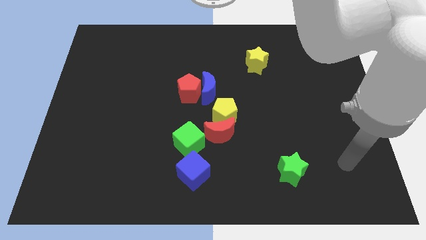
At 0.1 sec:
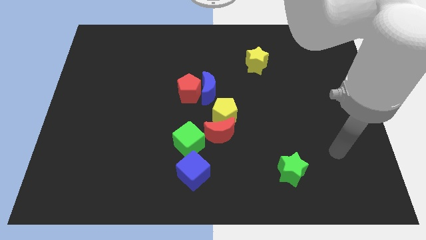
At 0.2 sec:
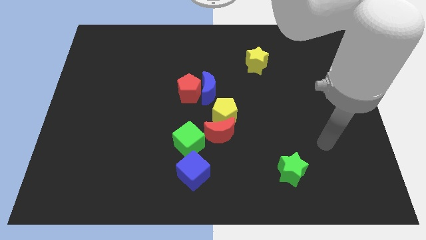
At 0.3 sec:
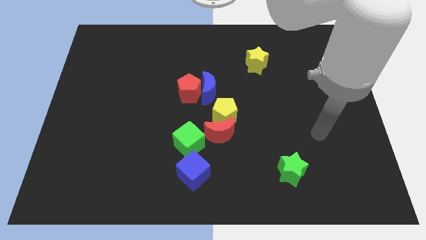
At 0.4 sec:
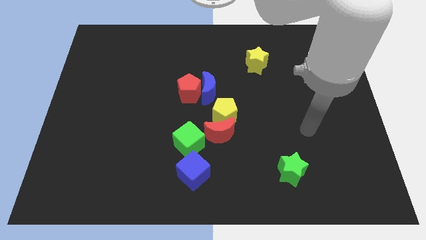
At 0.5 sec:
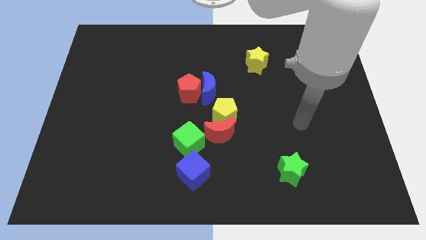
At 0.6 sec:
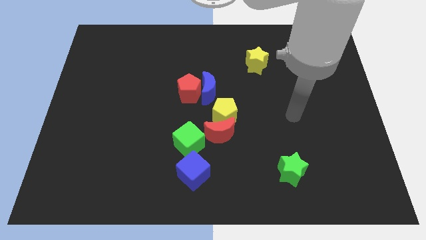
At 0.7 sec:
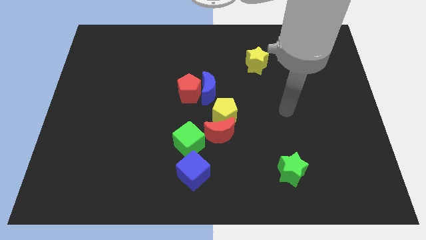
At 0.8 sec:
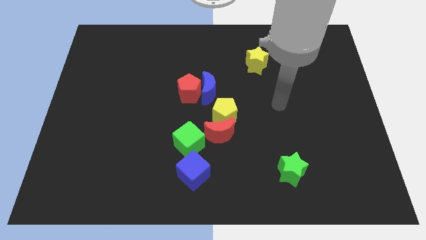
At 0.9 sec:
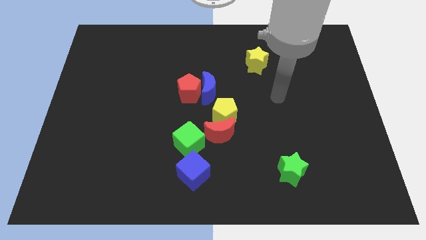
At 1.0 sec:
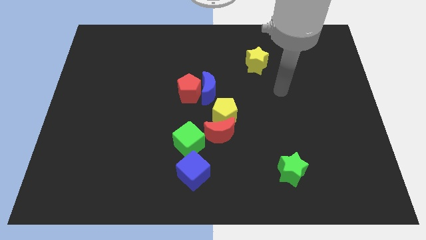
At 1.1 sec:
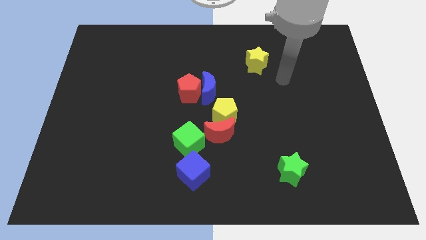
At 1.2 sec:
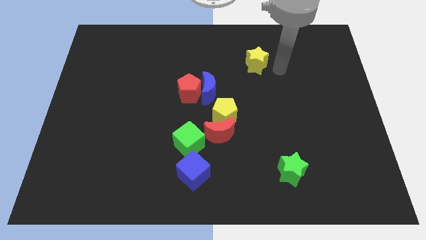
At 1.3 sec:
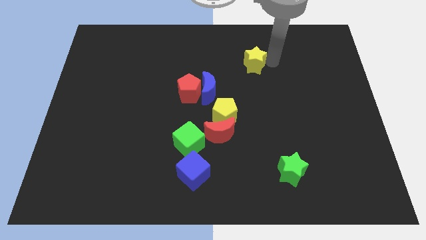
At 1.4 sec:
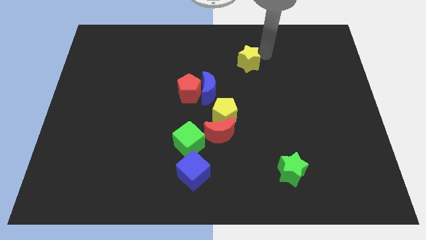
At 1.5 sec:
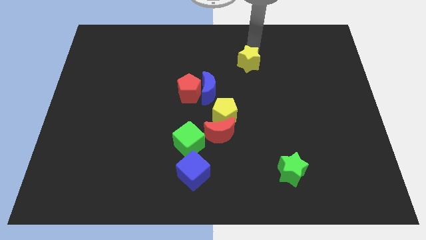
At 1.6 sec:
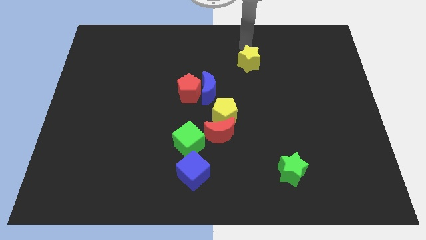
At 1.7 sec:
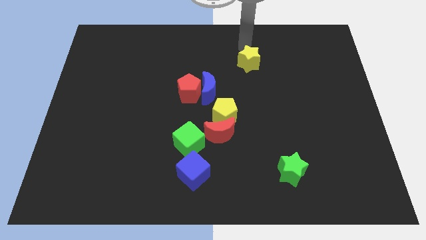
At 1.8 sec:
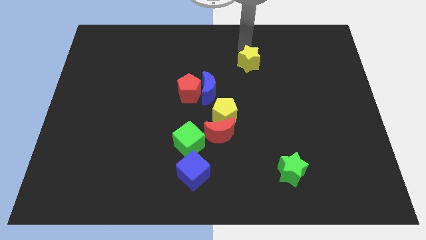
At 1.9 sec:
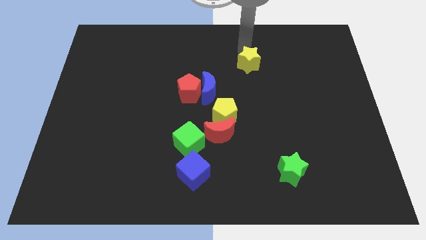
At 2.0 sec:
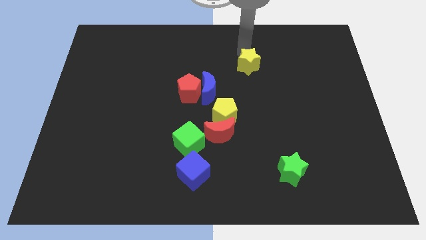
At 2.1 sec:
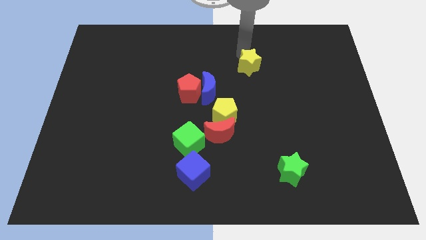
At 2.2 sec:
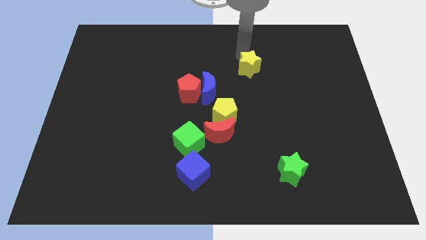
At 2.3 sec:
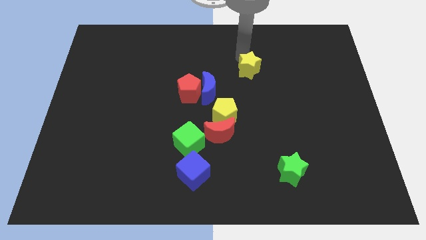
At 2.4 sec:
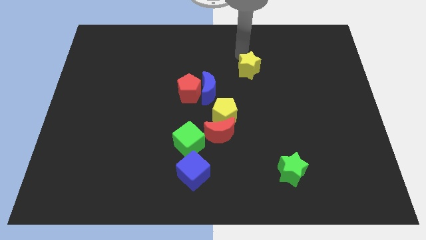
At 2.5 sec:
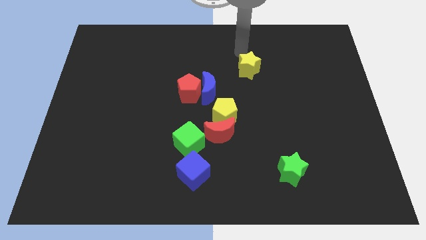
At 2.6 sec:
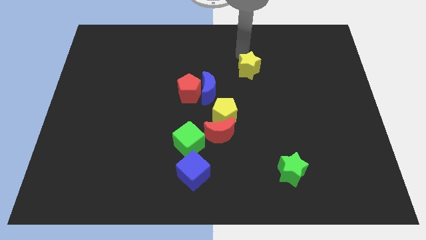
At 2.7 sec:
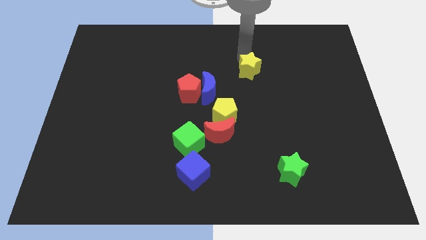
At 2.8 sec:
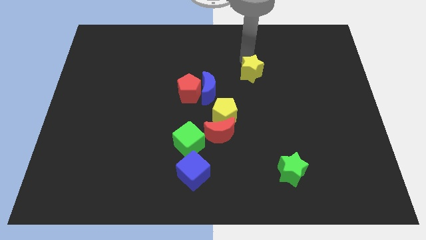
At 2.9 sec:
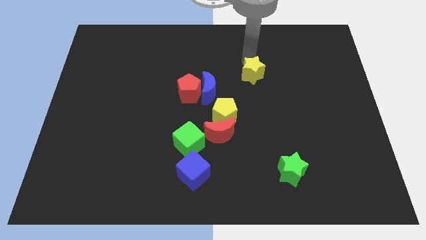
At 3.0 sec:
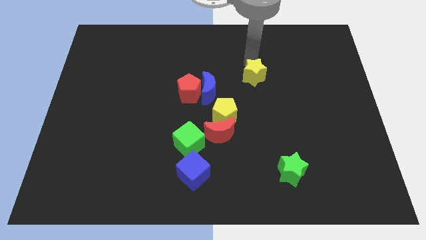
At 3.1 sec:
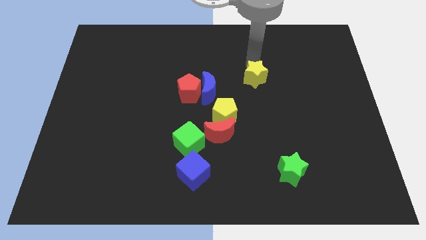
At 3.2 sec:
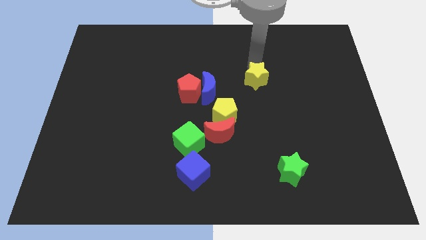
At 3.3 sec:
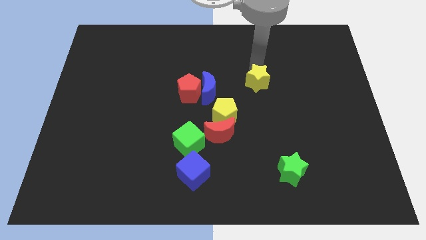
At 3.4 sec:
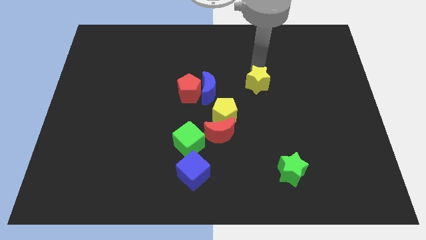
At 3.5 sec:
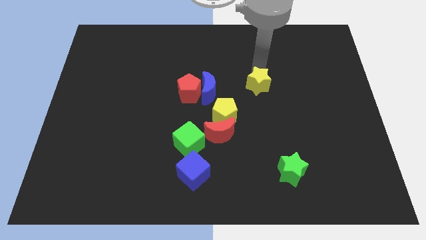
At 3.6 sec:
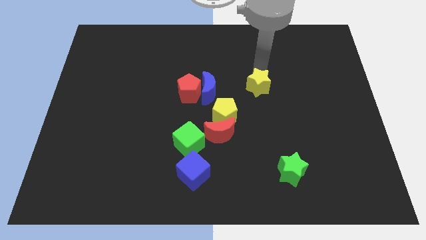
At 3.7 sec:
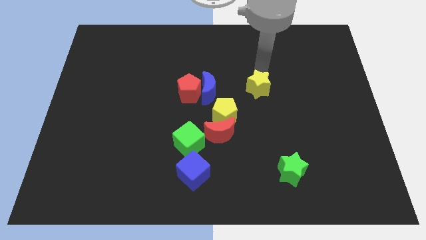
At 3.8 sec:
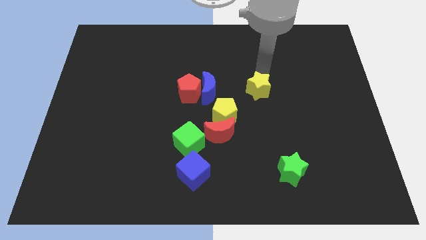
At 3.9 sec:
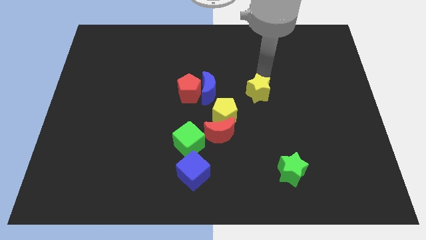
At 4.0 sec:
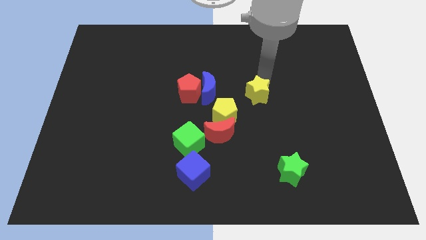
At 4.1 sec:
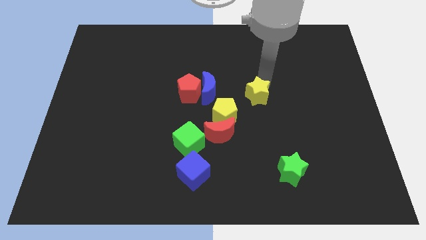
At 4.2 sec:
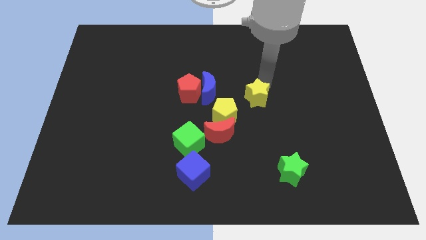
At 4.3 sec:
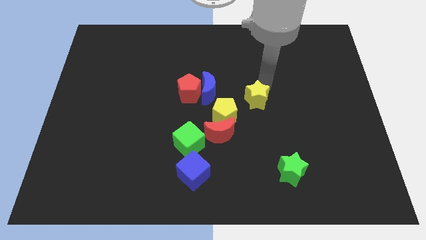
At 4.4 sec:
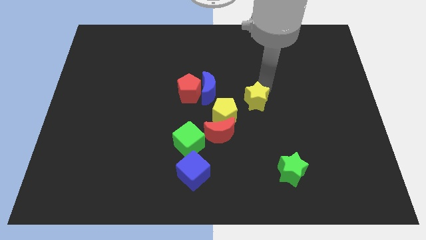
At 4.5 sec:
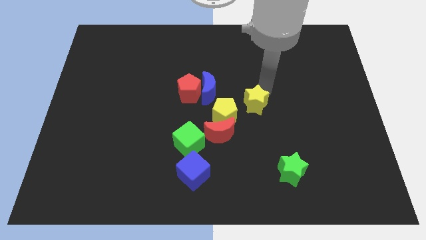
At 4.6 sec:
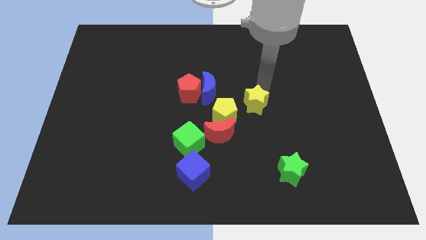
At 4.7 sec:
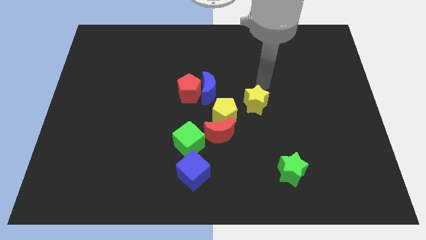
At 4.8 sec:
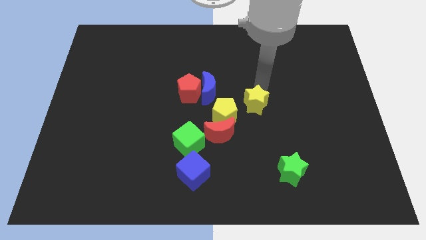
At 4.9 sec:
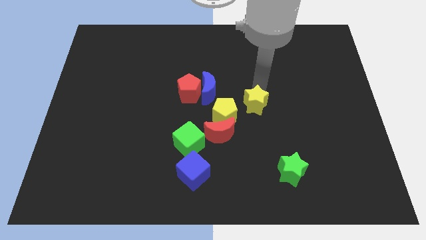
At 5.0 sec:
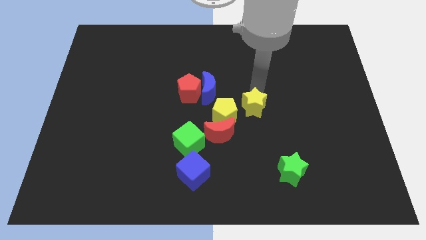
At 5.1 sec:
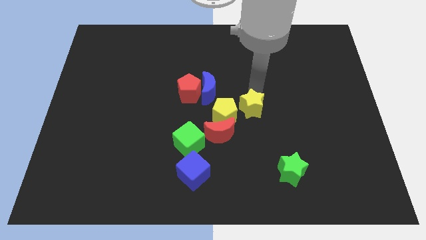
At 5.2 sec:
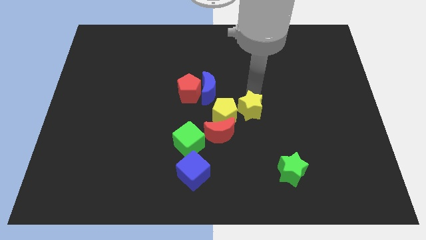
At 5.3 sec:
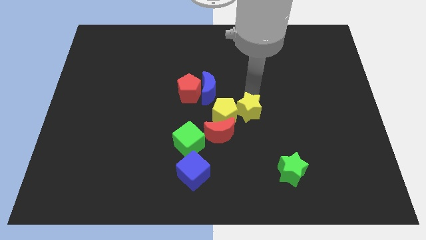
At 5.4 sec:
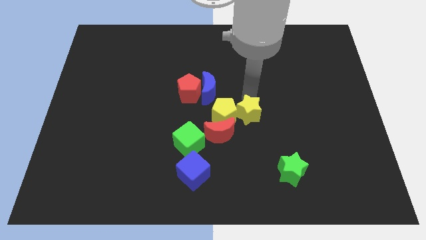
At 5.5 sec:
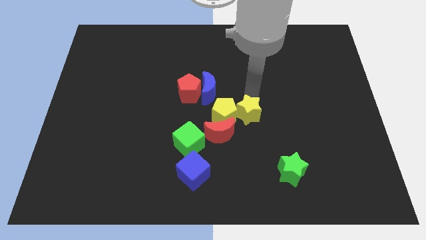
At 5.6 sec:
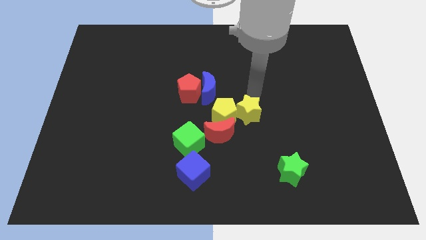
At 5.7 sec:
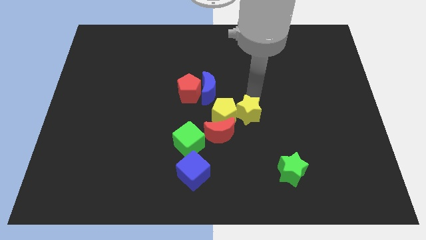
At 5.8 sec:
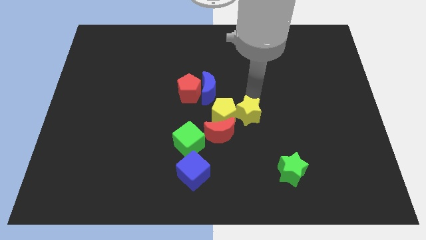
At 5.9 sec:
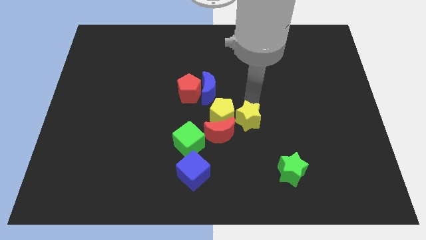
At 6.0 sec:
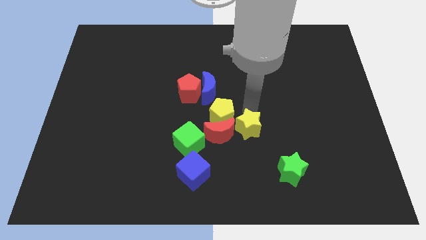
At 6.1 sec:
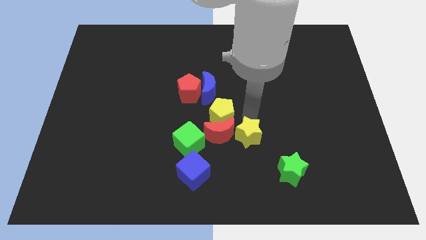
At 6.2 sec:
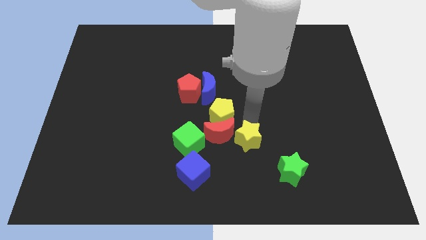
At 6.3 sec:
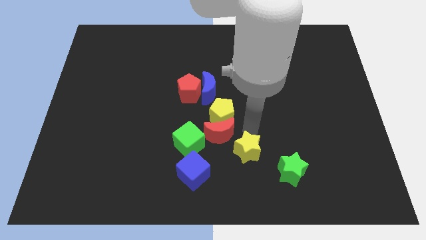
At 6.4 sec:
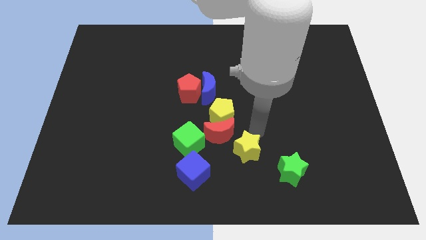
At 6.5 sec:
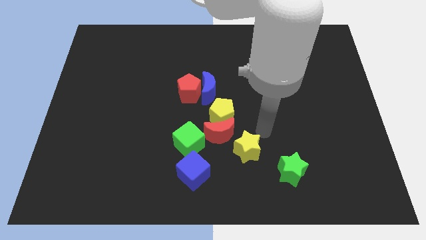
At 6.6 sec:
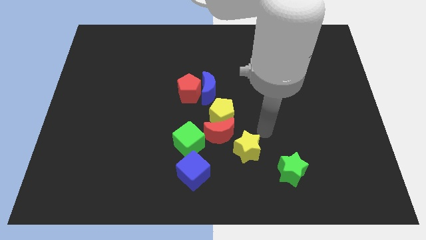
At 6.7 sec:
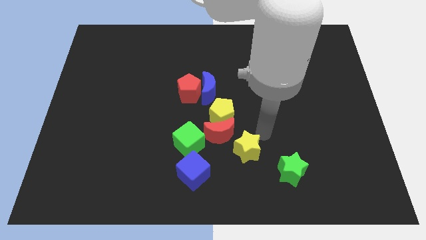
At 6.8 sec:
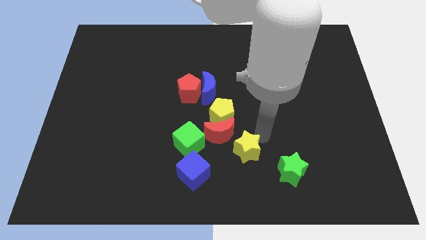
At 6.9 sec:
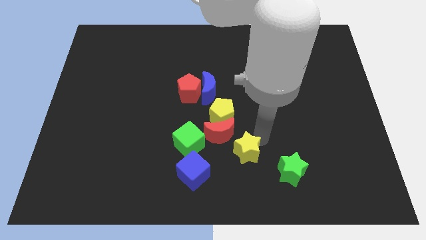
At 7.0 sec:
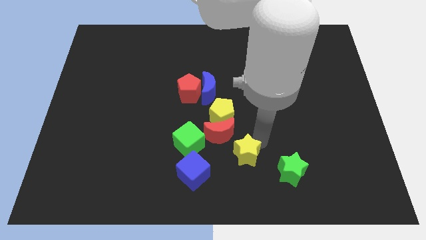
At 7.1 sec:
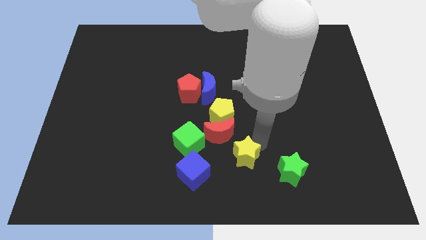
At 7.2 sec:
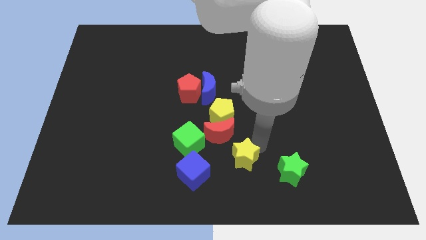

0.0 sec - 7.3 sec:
move the yellow star to the bottom side
